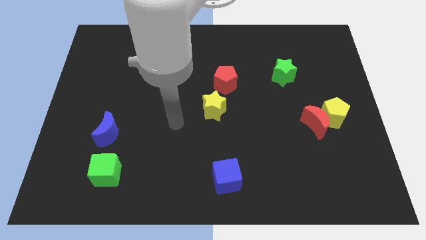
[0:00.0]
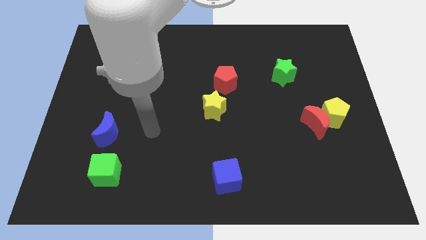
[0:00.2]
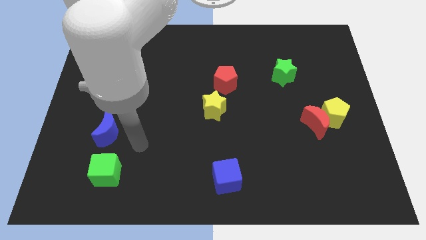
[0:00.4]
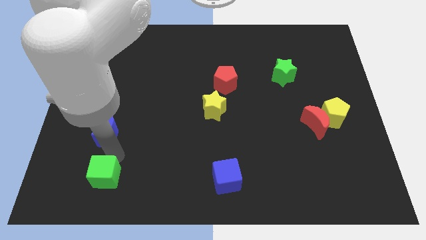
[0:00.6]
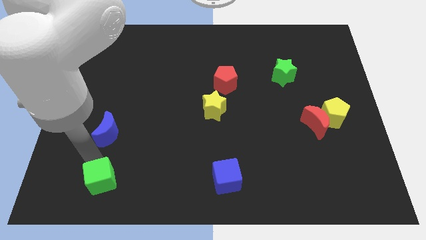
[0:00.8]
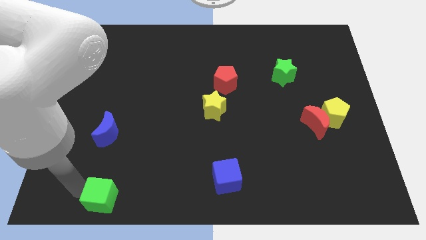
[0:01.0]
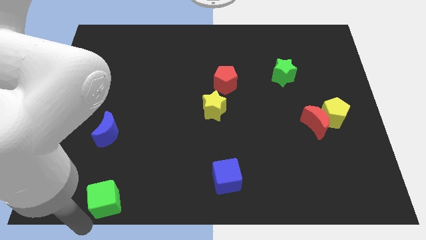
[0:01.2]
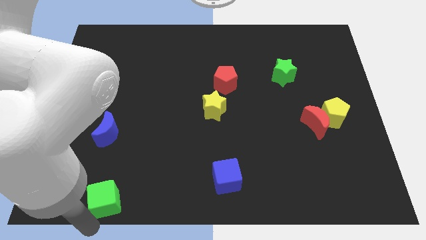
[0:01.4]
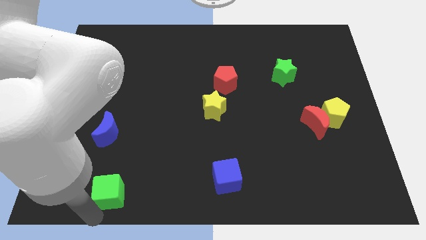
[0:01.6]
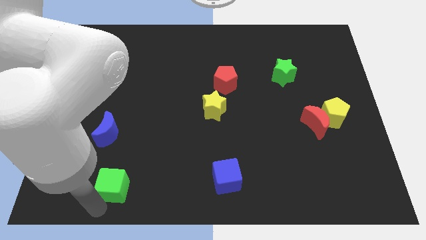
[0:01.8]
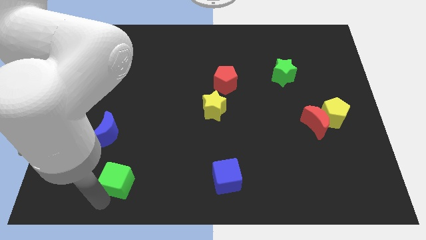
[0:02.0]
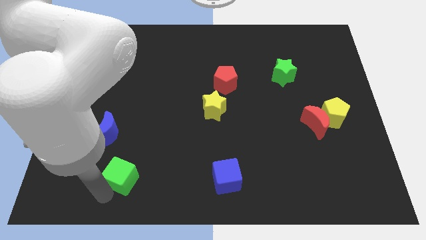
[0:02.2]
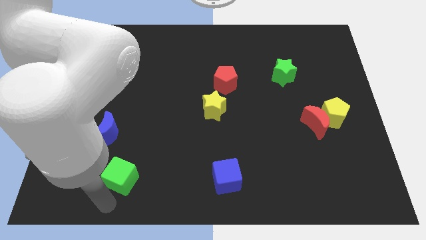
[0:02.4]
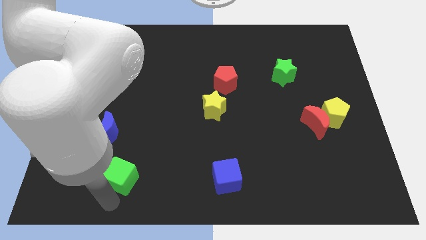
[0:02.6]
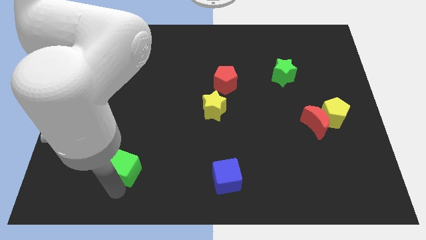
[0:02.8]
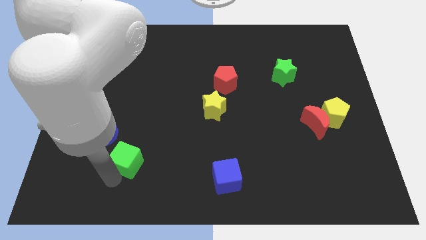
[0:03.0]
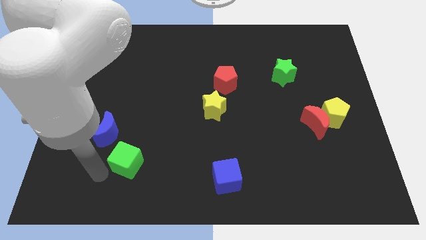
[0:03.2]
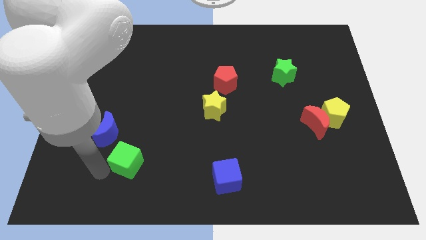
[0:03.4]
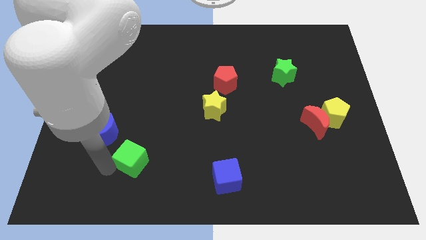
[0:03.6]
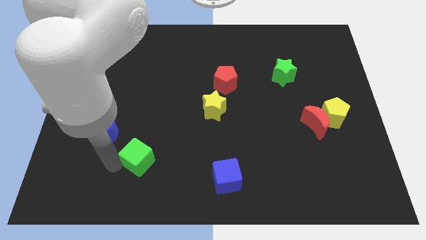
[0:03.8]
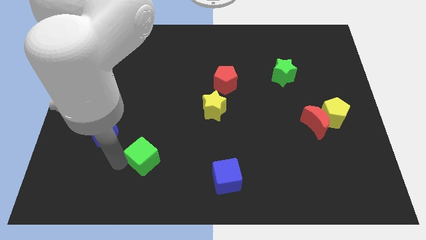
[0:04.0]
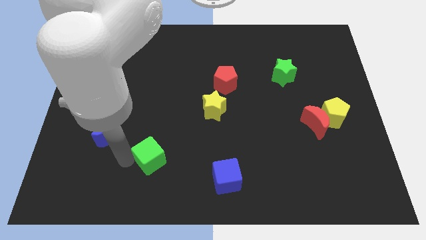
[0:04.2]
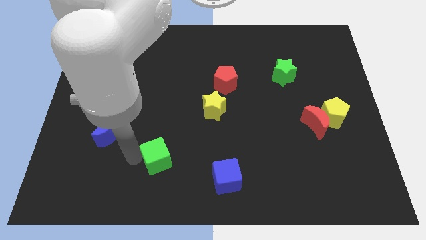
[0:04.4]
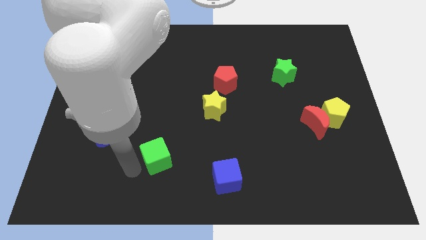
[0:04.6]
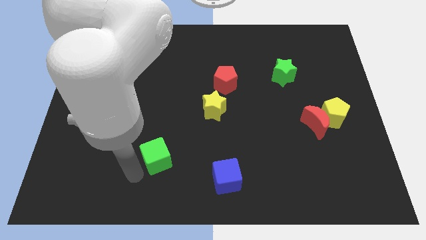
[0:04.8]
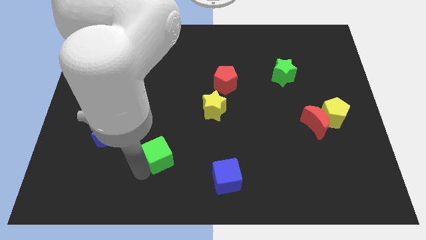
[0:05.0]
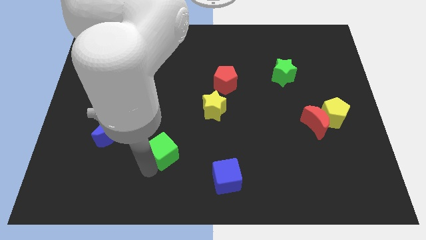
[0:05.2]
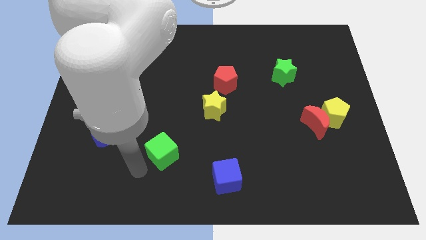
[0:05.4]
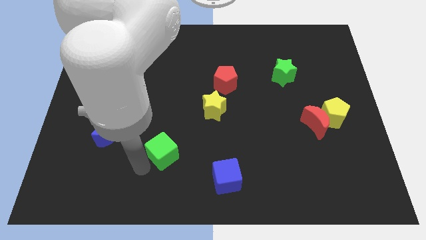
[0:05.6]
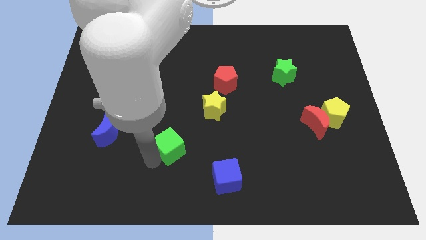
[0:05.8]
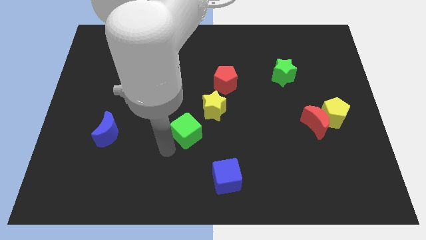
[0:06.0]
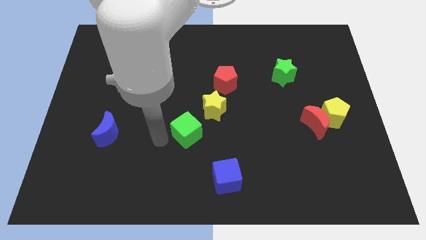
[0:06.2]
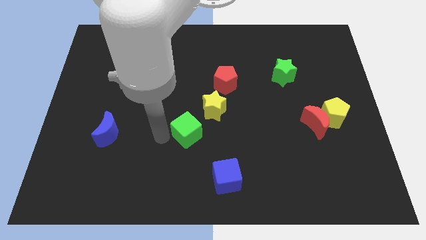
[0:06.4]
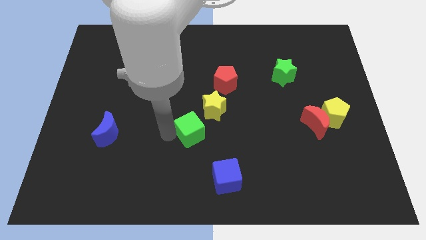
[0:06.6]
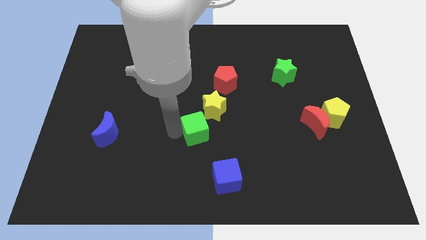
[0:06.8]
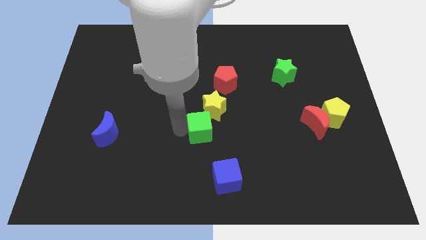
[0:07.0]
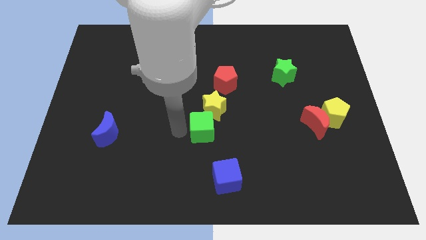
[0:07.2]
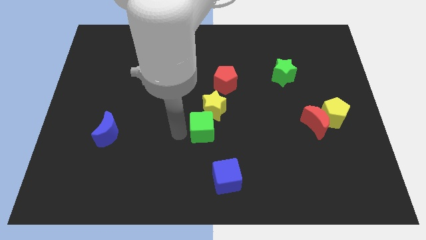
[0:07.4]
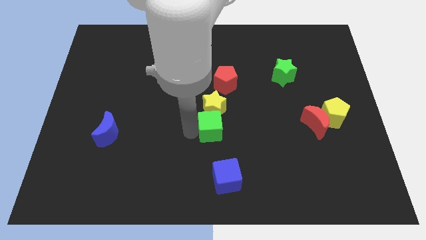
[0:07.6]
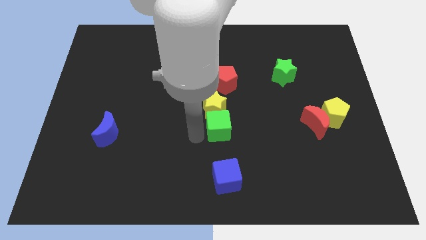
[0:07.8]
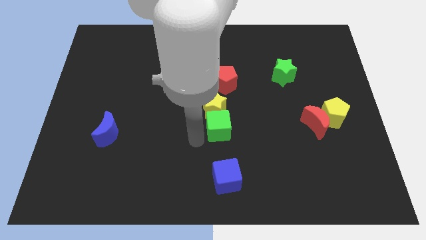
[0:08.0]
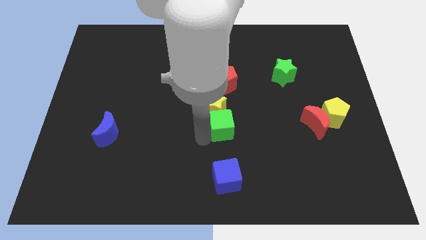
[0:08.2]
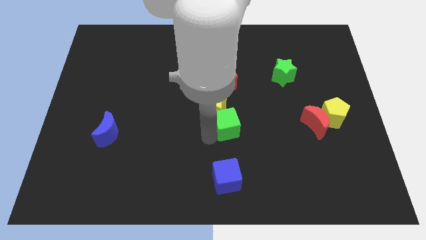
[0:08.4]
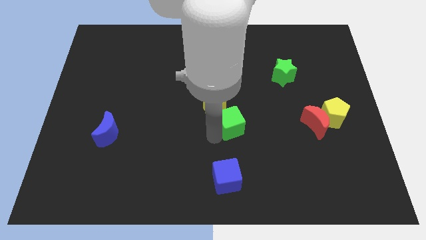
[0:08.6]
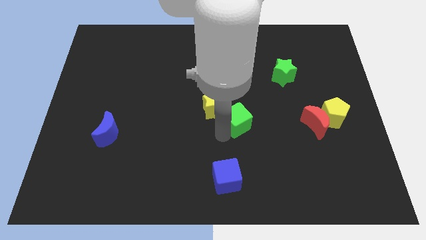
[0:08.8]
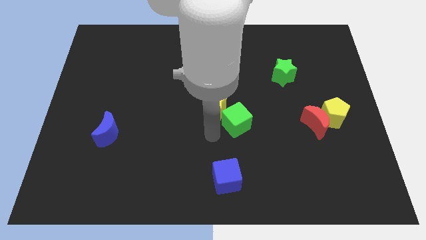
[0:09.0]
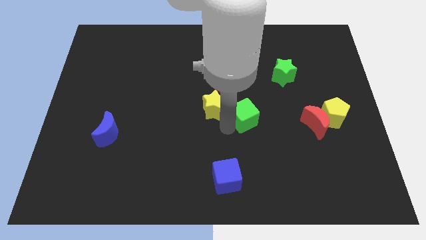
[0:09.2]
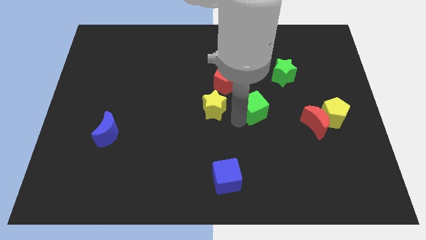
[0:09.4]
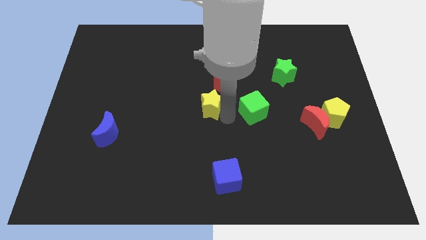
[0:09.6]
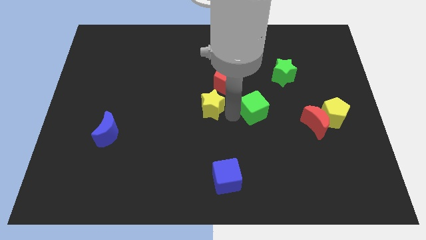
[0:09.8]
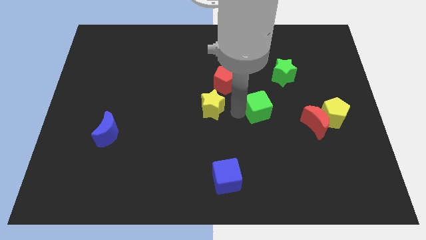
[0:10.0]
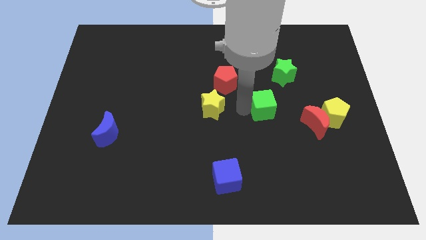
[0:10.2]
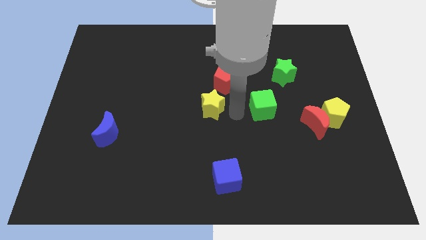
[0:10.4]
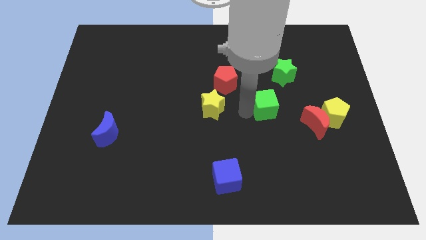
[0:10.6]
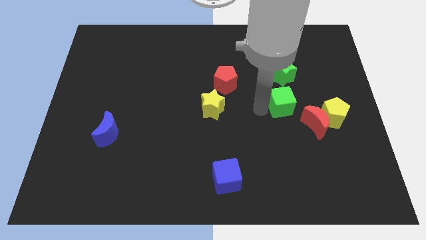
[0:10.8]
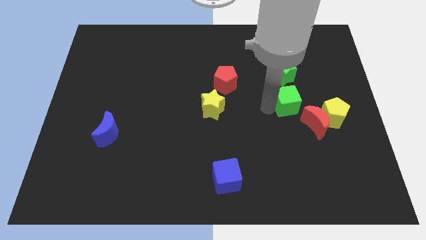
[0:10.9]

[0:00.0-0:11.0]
move the green cube to the top left of the yellow pentagon
